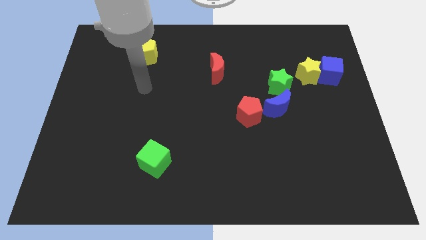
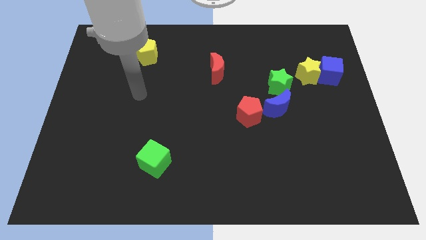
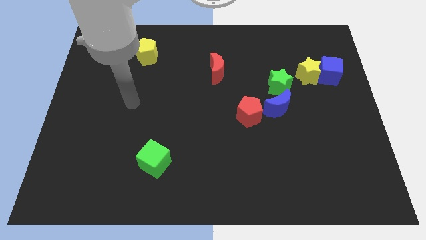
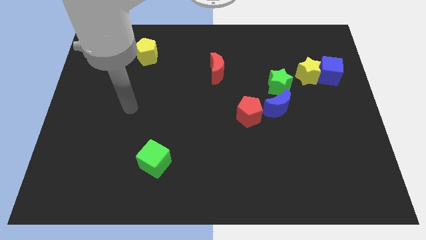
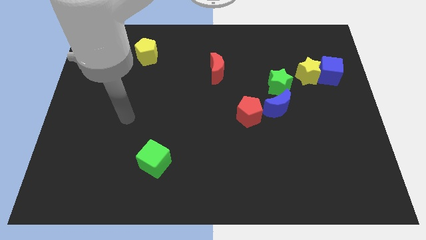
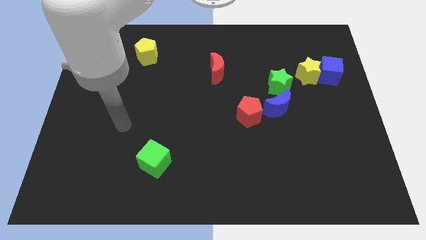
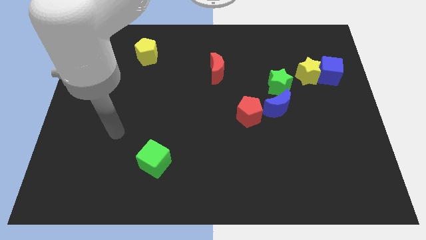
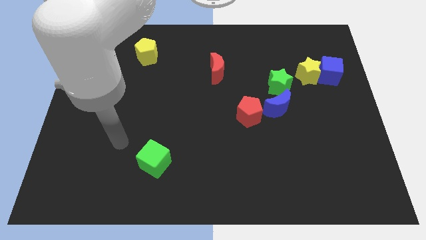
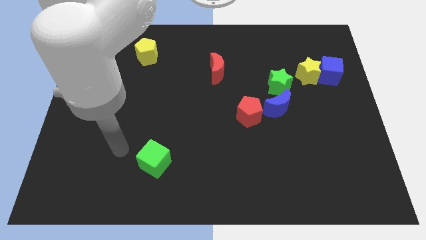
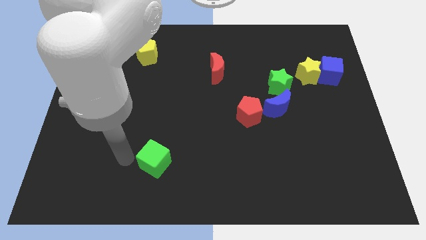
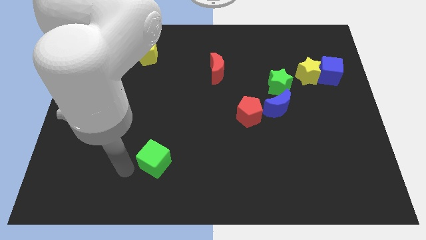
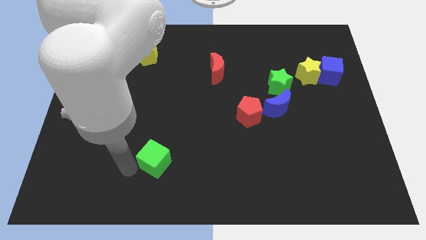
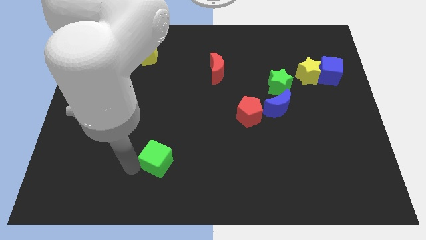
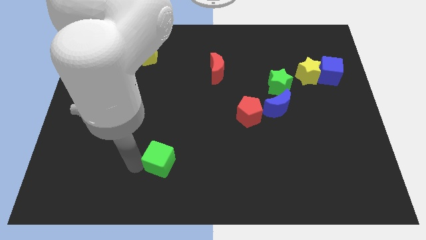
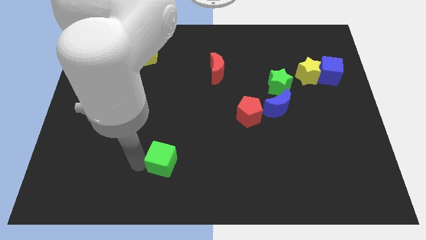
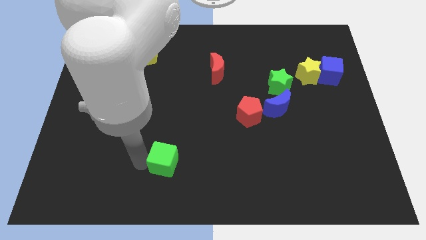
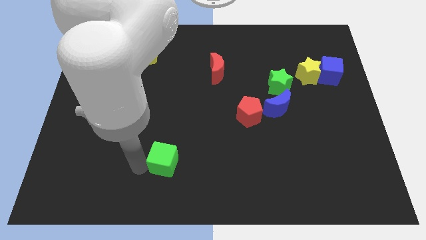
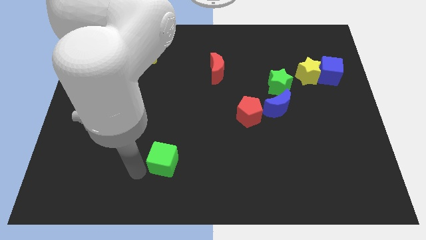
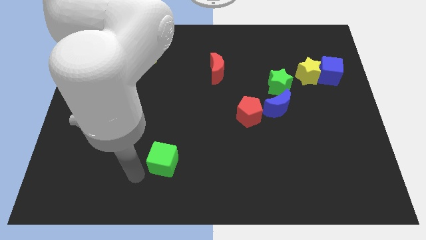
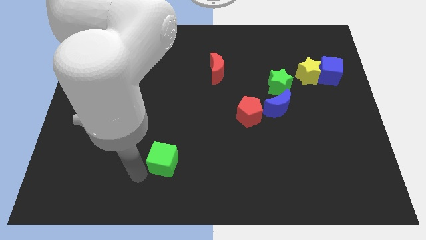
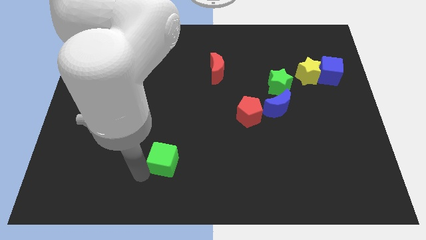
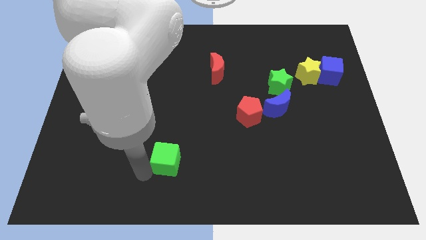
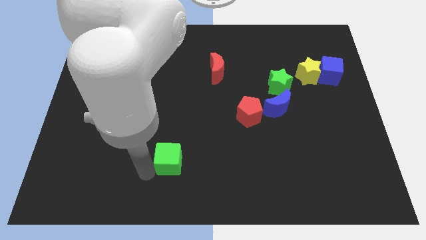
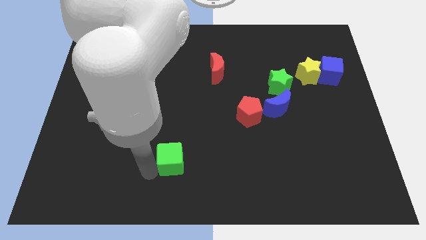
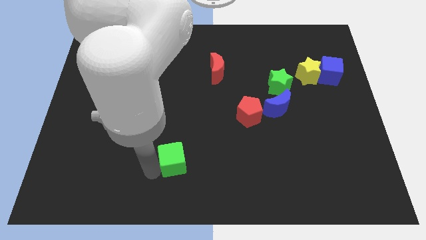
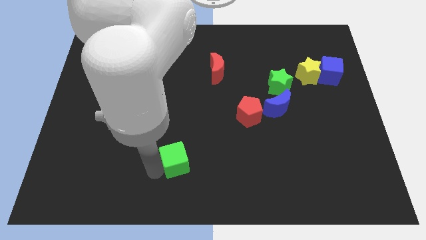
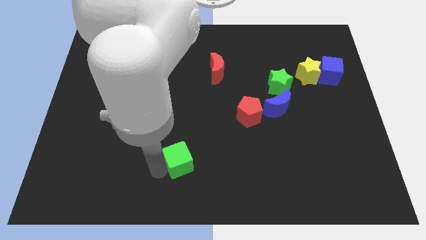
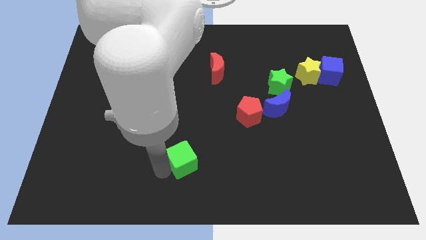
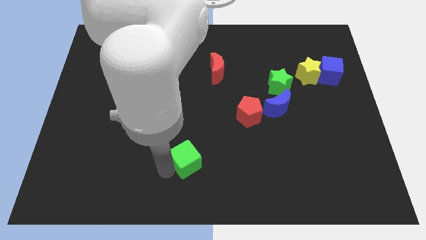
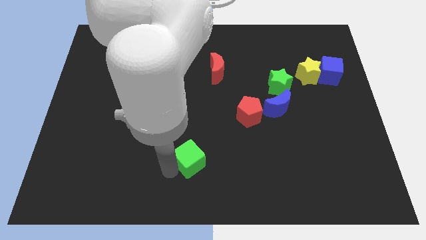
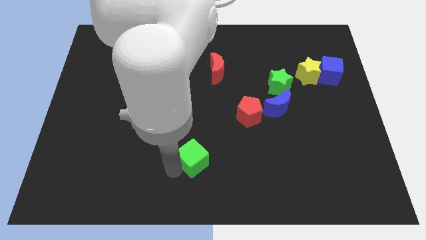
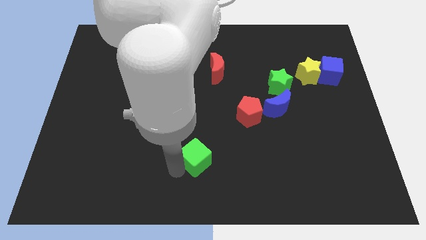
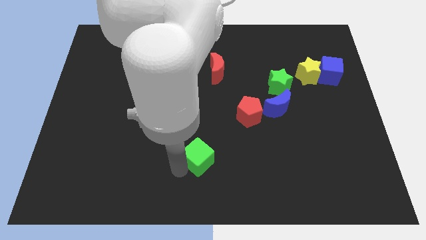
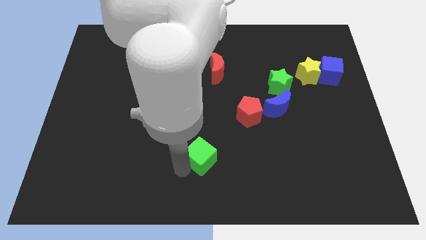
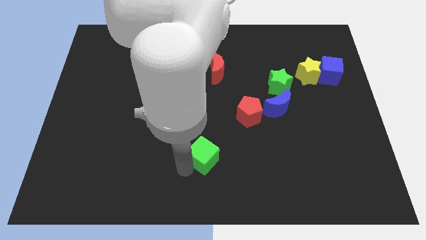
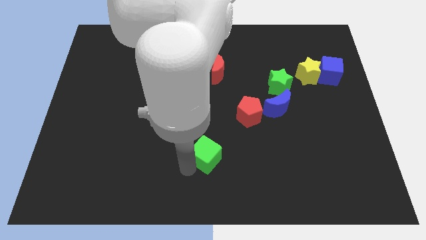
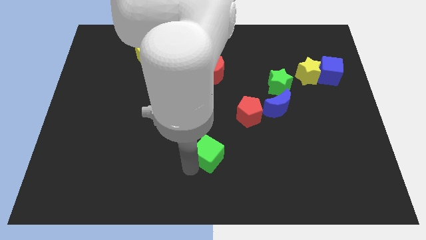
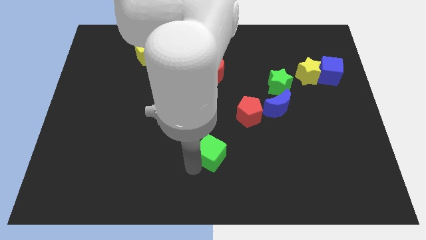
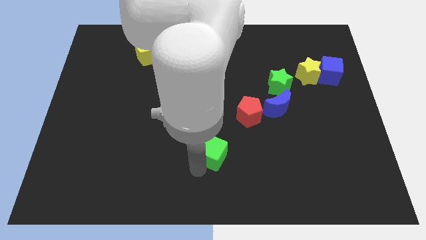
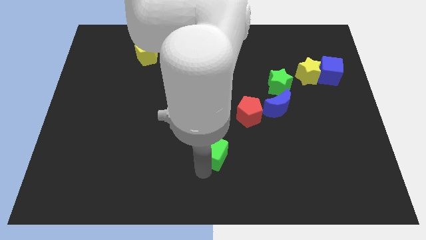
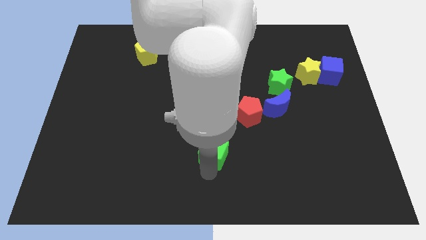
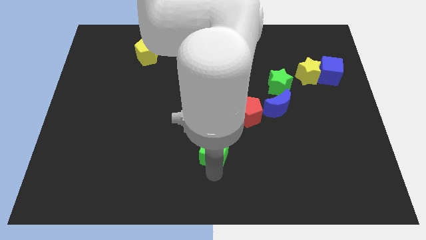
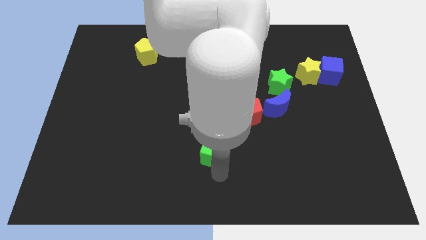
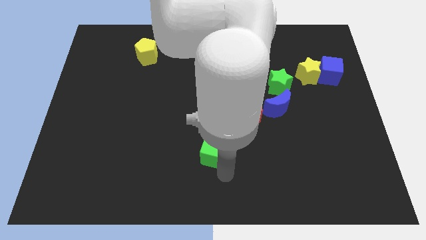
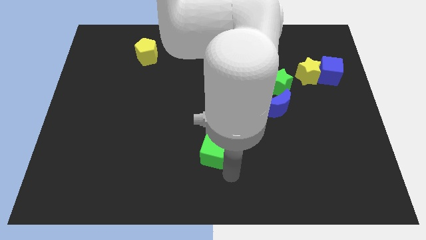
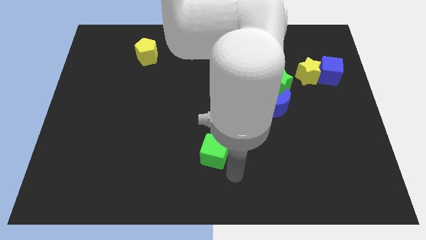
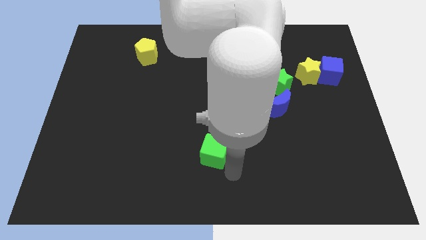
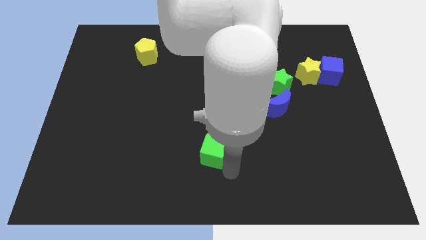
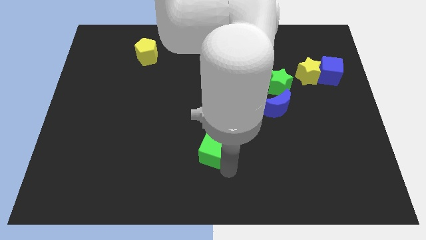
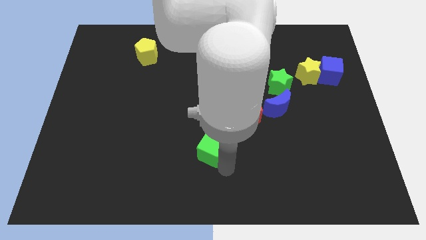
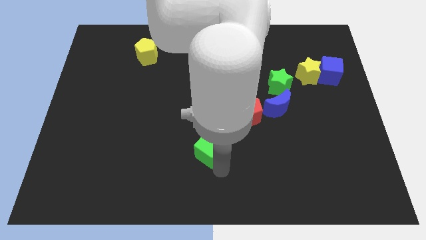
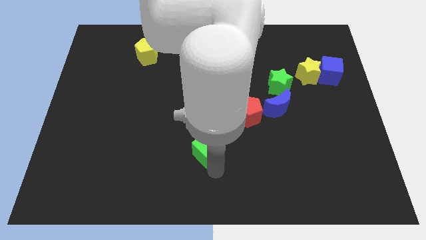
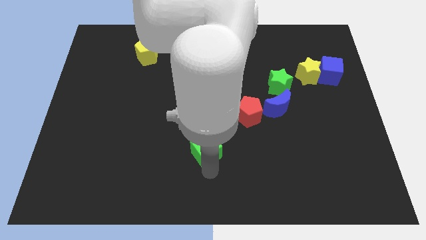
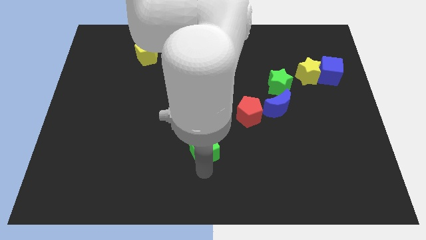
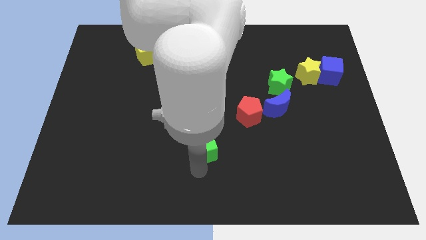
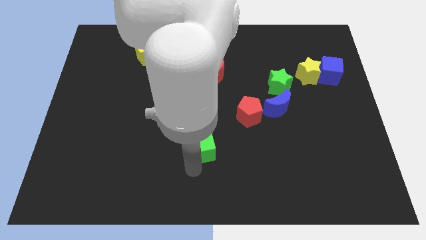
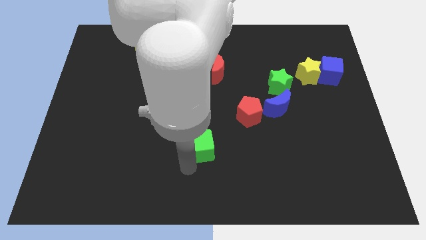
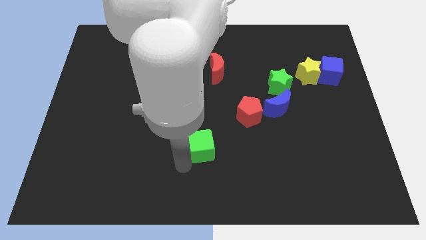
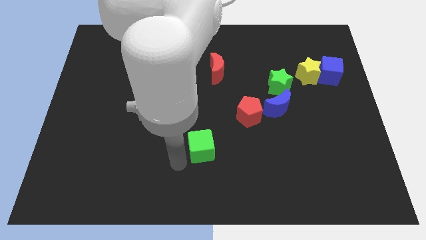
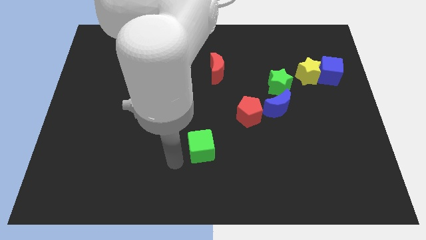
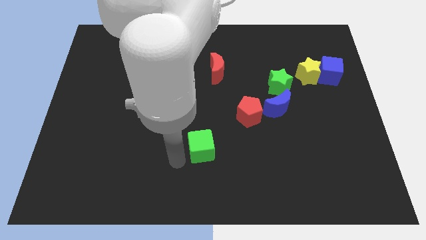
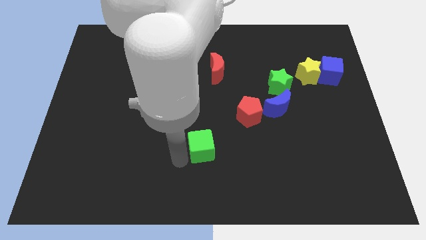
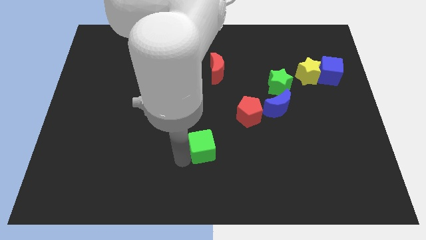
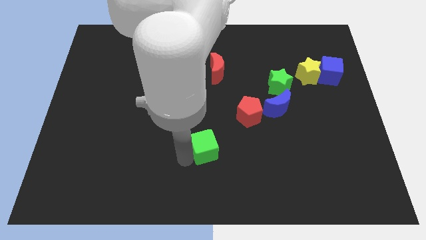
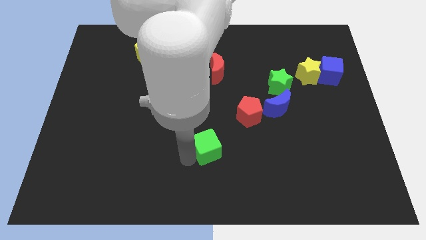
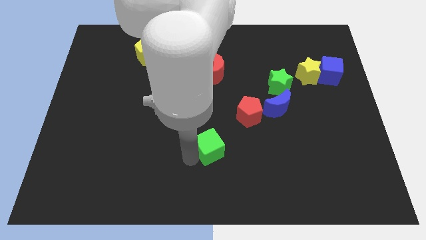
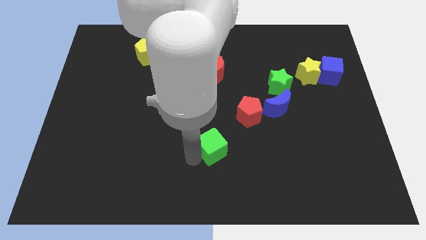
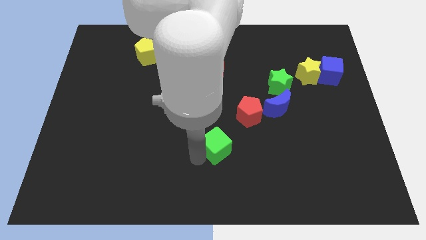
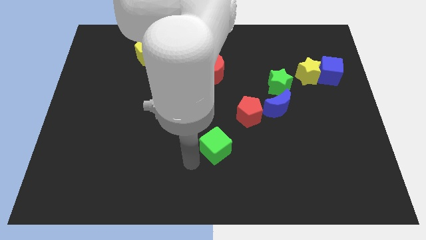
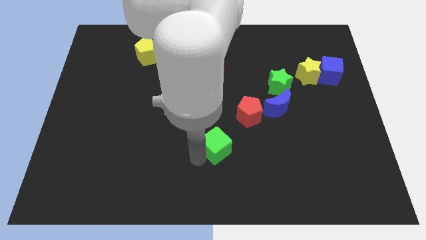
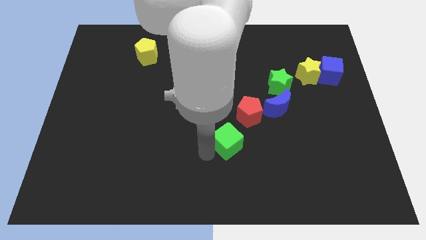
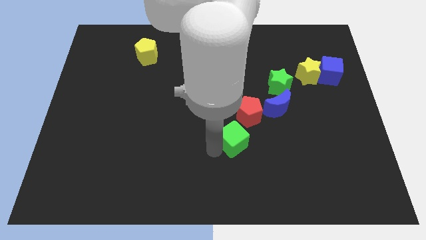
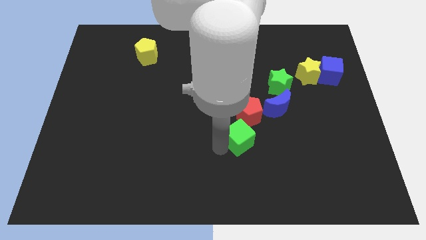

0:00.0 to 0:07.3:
move the green cube diagonally down and to the left of the blue moon
